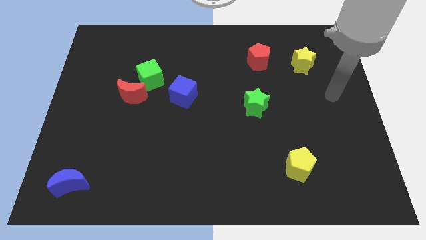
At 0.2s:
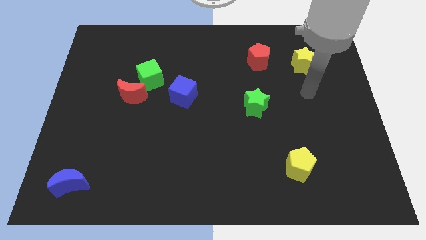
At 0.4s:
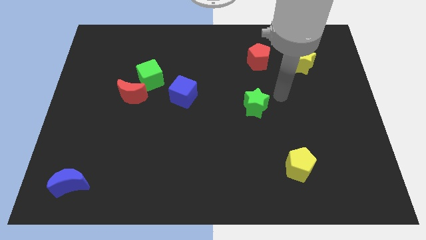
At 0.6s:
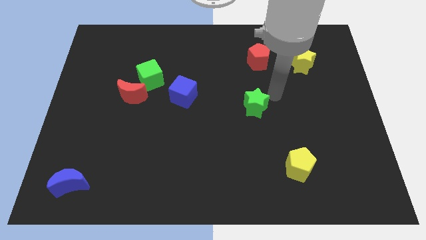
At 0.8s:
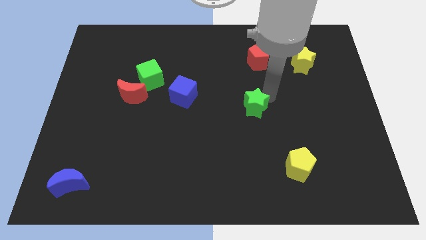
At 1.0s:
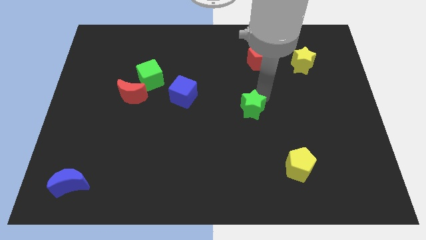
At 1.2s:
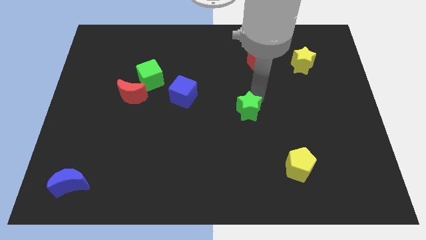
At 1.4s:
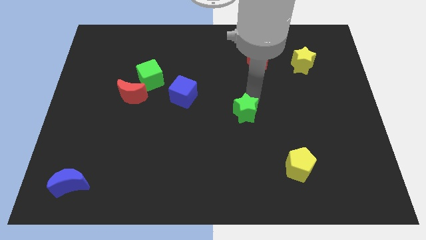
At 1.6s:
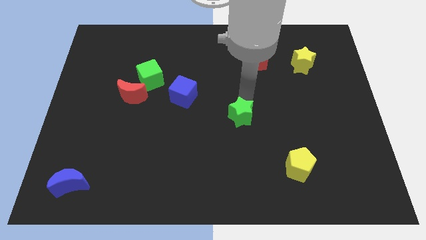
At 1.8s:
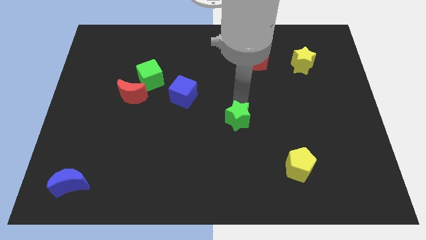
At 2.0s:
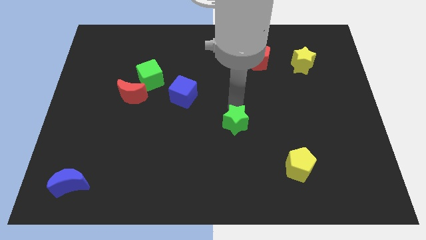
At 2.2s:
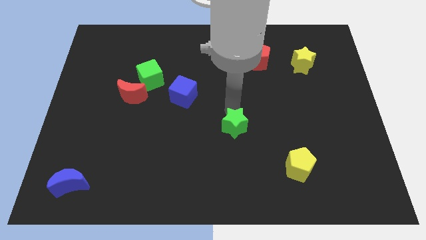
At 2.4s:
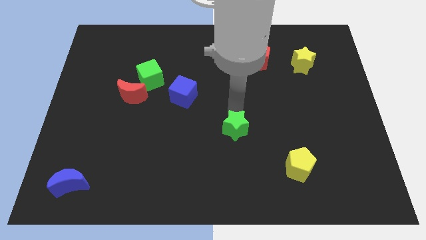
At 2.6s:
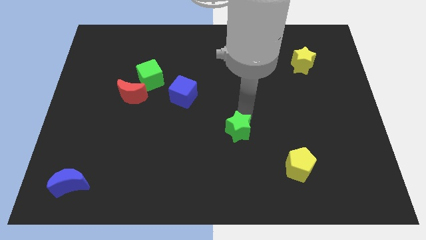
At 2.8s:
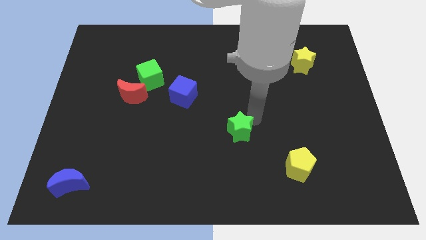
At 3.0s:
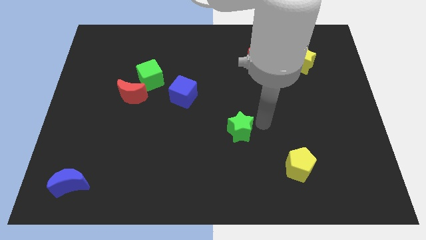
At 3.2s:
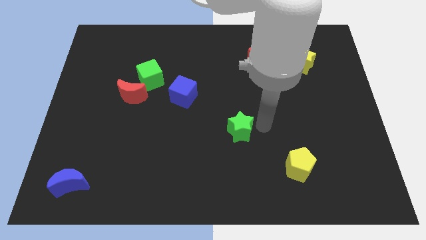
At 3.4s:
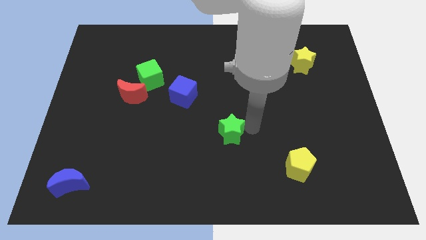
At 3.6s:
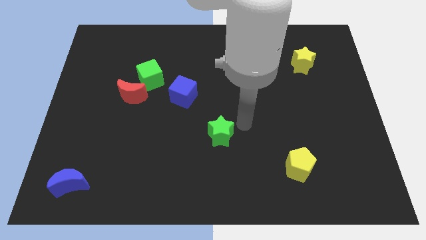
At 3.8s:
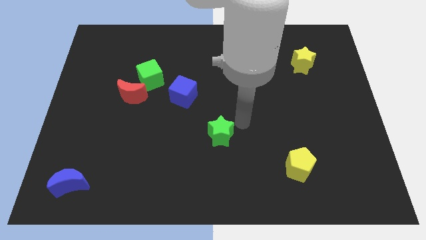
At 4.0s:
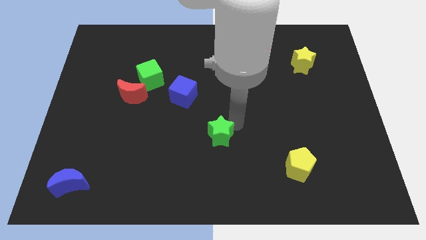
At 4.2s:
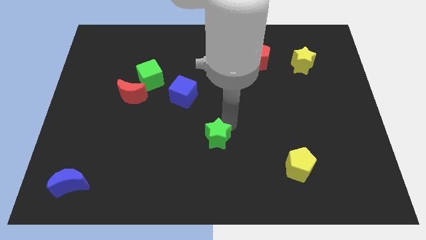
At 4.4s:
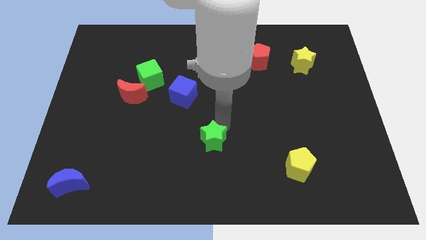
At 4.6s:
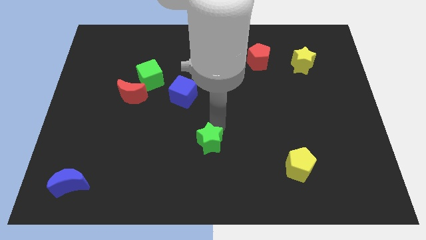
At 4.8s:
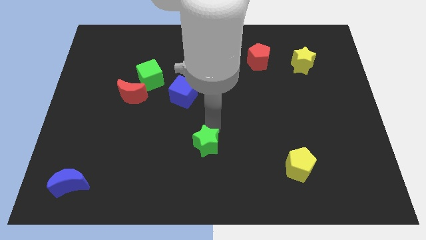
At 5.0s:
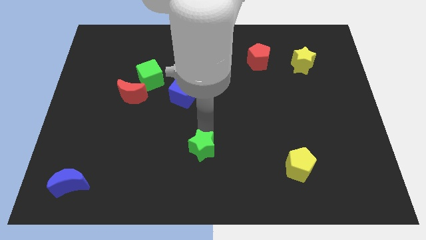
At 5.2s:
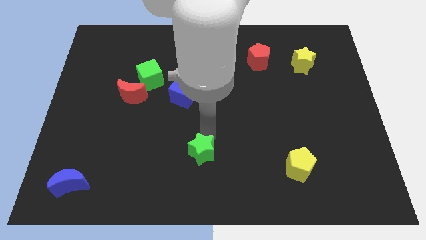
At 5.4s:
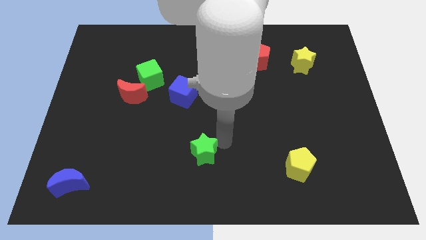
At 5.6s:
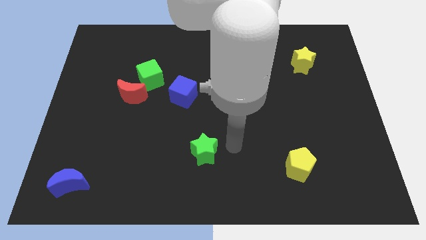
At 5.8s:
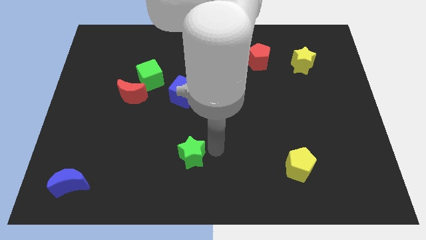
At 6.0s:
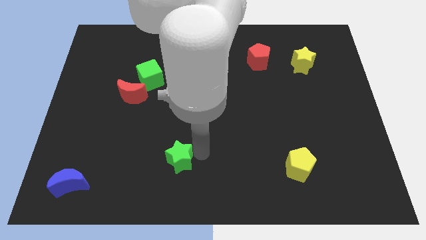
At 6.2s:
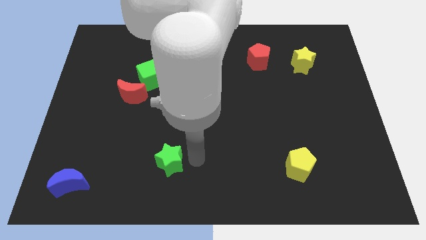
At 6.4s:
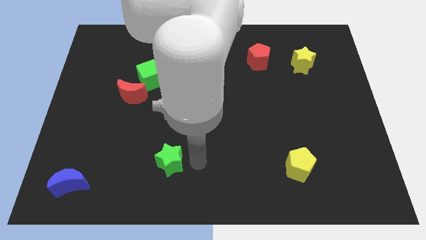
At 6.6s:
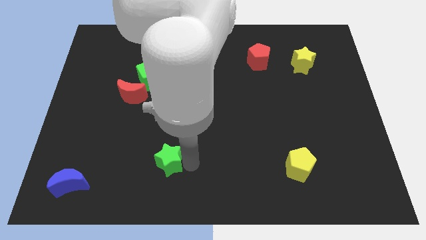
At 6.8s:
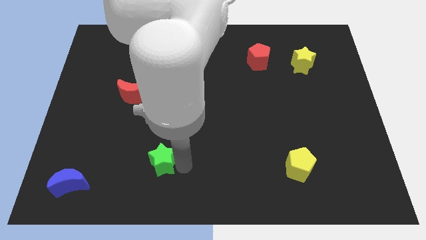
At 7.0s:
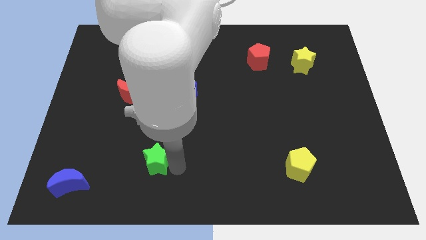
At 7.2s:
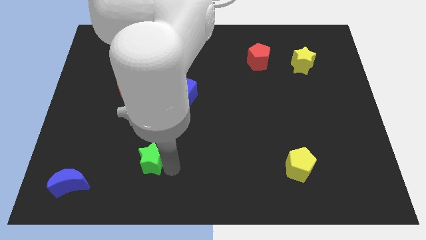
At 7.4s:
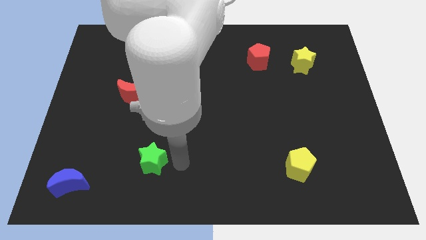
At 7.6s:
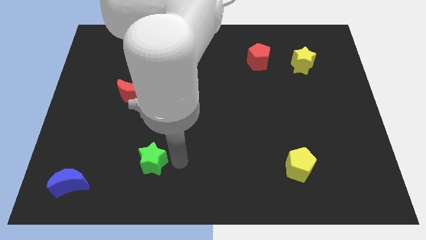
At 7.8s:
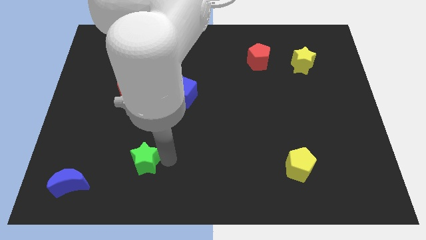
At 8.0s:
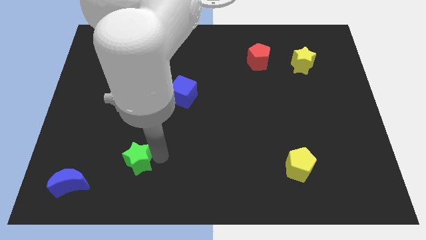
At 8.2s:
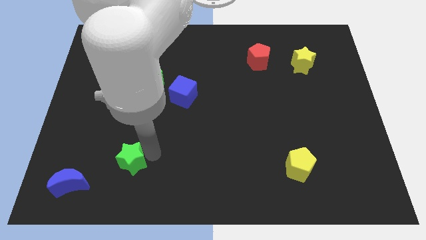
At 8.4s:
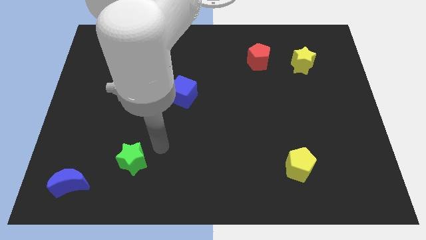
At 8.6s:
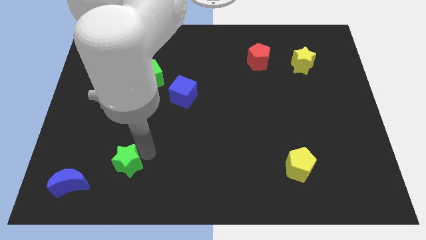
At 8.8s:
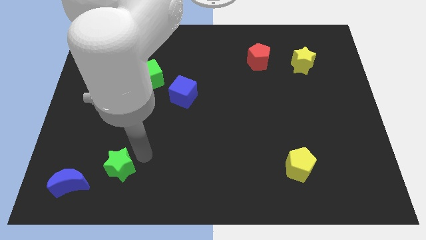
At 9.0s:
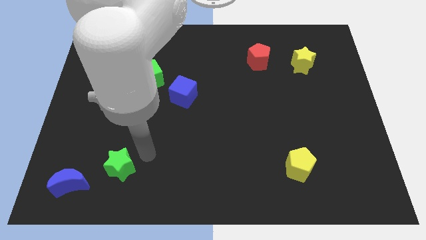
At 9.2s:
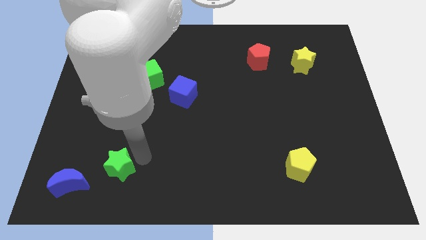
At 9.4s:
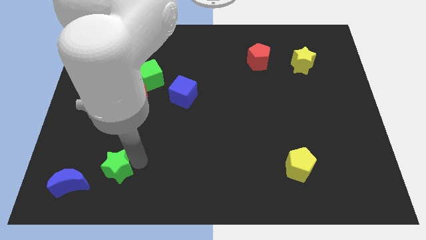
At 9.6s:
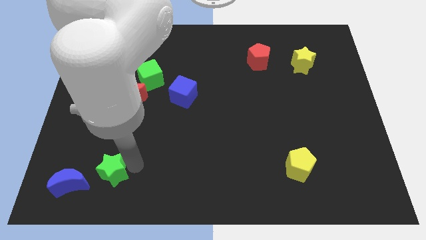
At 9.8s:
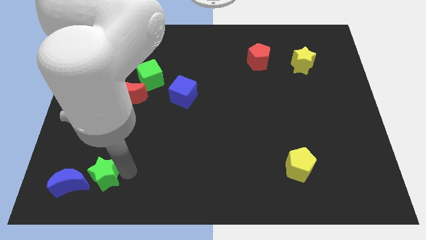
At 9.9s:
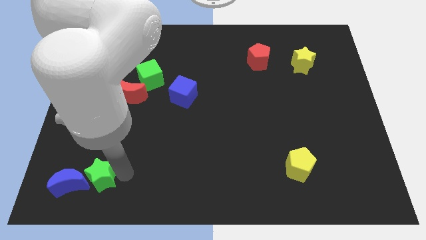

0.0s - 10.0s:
push the green star close to the blue moon

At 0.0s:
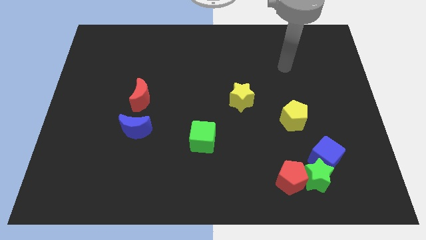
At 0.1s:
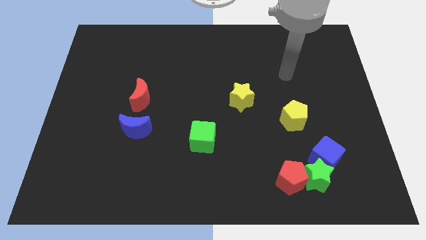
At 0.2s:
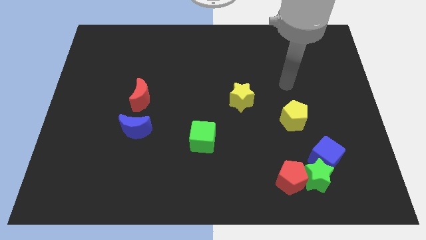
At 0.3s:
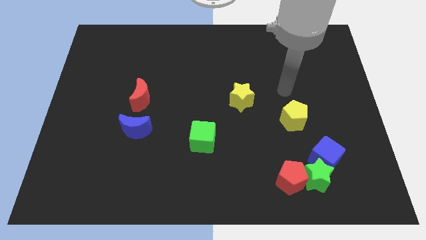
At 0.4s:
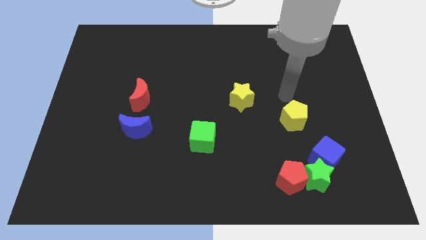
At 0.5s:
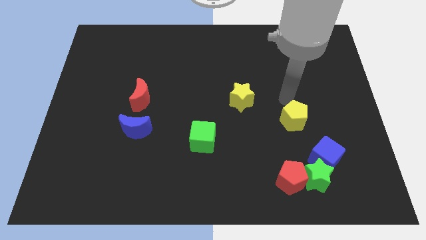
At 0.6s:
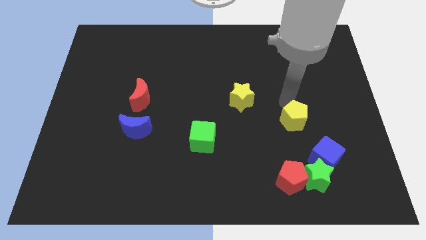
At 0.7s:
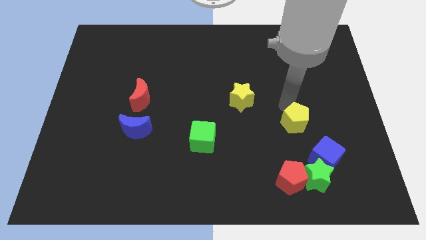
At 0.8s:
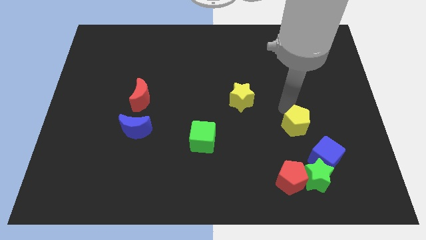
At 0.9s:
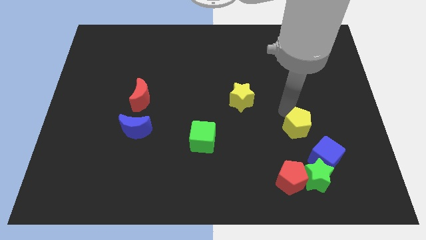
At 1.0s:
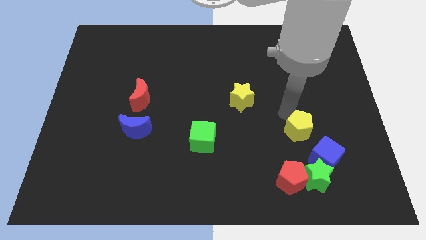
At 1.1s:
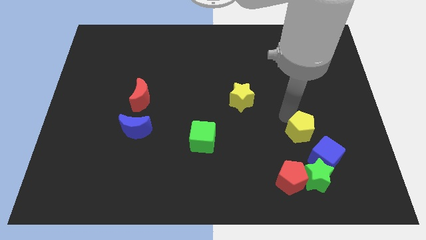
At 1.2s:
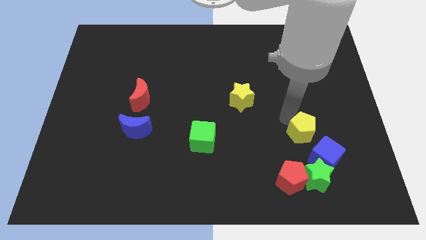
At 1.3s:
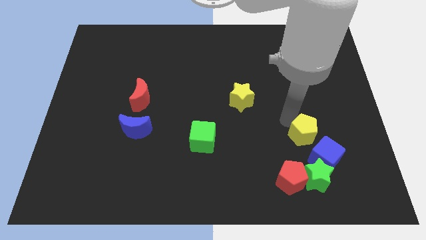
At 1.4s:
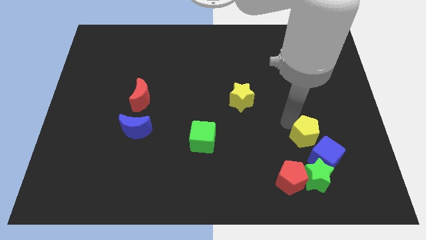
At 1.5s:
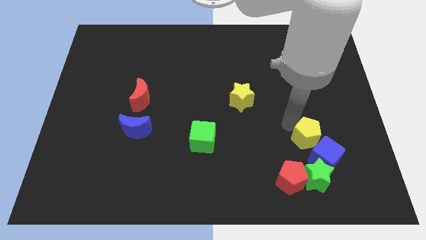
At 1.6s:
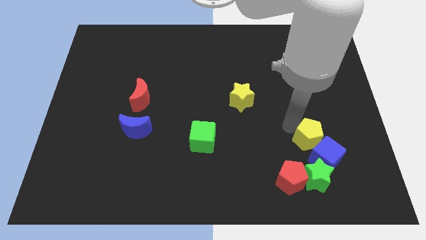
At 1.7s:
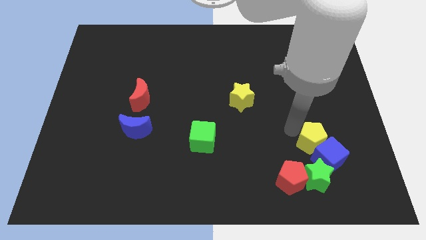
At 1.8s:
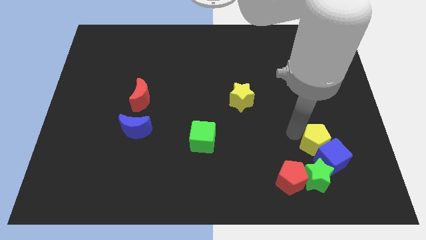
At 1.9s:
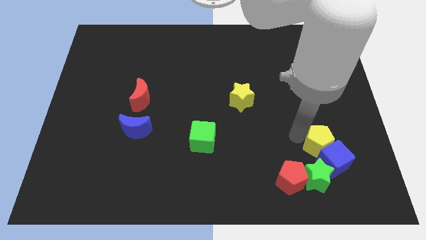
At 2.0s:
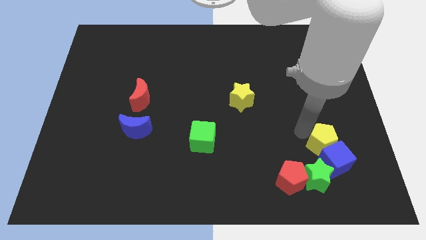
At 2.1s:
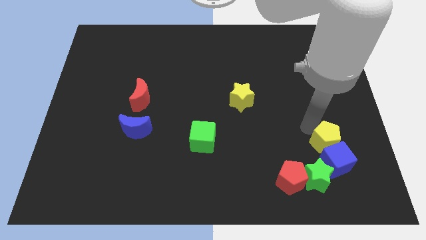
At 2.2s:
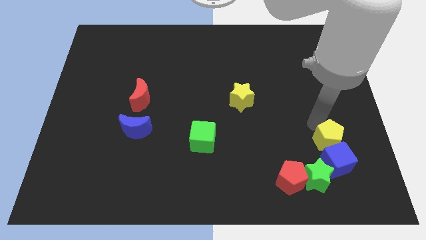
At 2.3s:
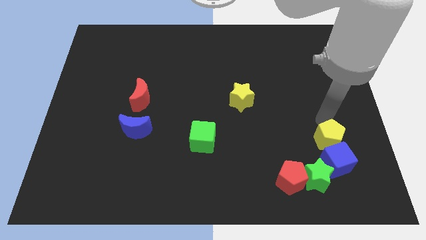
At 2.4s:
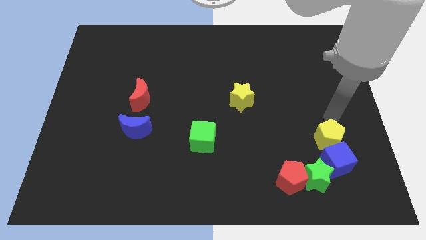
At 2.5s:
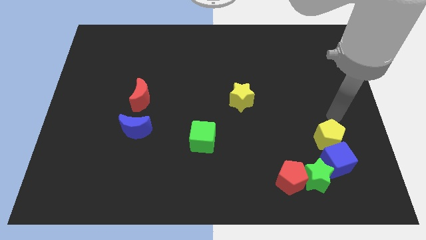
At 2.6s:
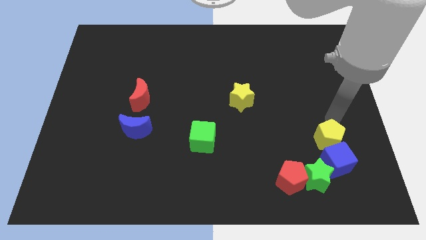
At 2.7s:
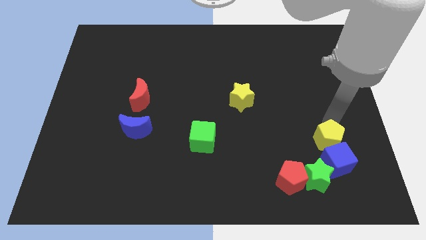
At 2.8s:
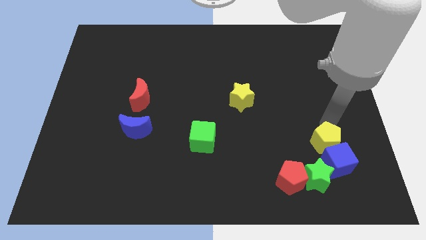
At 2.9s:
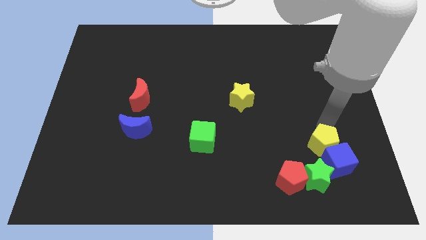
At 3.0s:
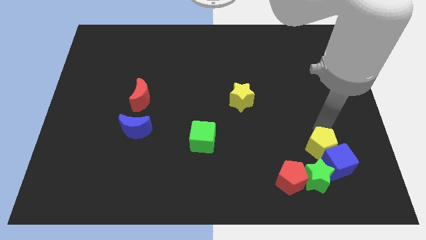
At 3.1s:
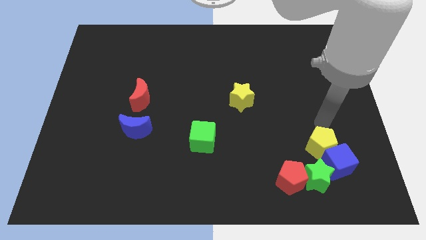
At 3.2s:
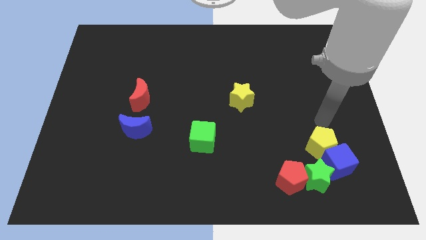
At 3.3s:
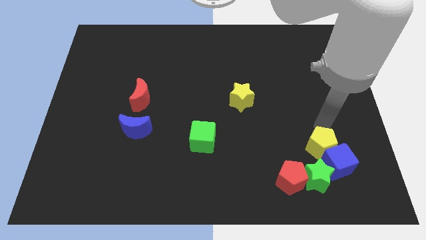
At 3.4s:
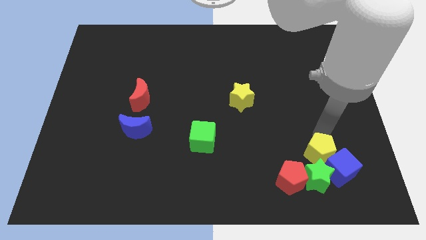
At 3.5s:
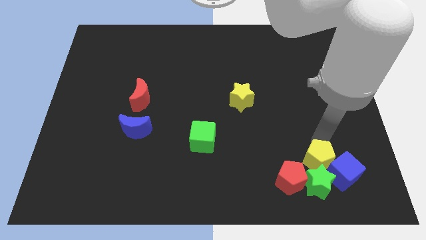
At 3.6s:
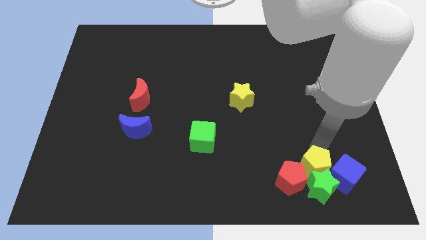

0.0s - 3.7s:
push the yellow pentagon next to the green star
